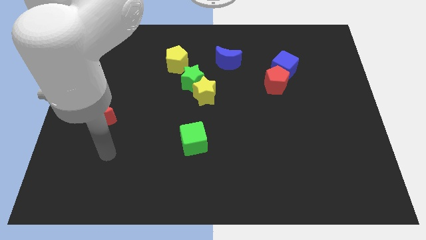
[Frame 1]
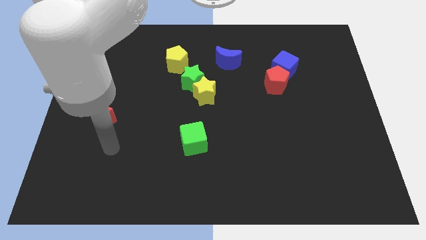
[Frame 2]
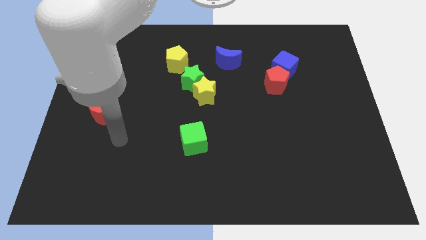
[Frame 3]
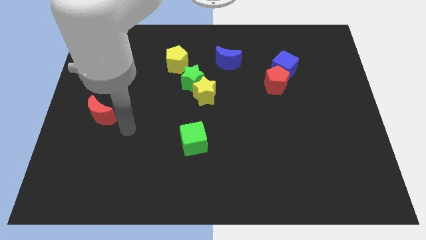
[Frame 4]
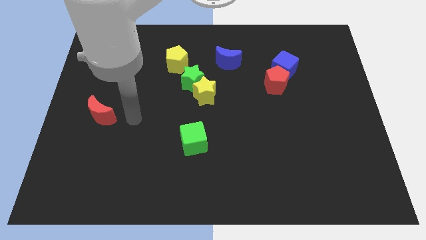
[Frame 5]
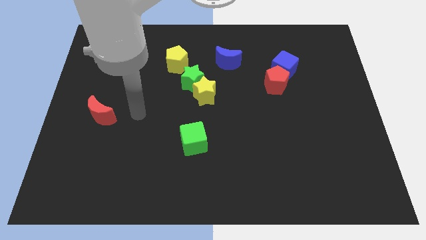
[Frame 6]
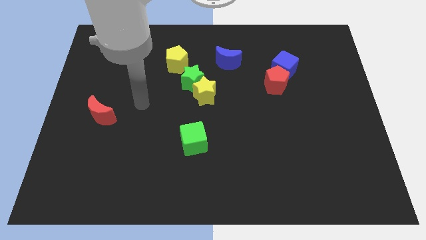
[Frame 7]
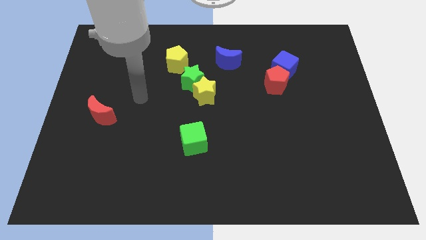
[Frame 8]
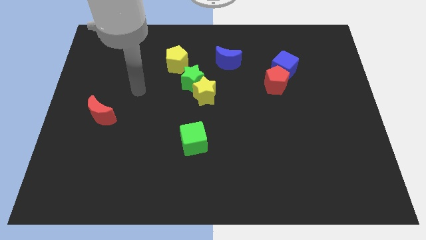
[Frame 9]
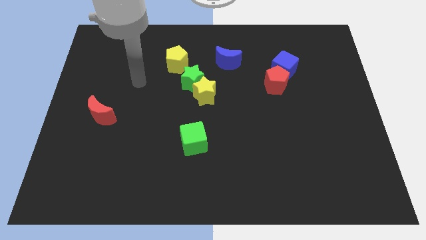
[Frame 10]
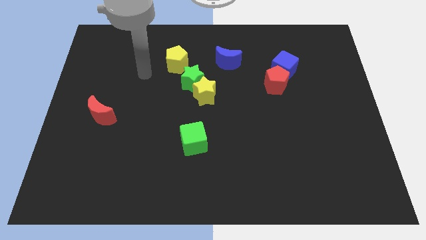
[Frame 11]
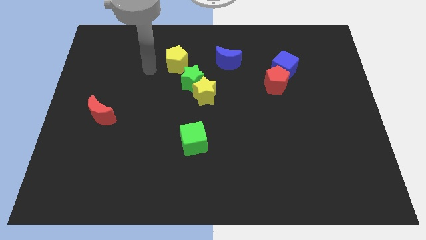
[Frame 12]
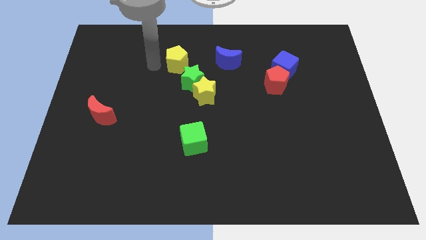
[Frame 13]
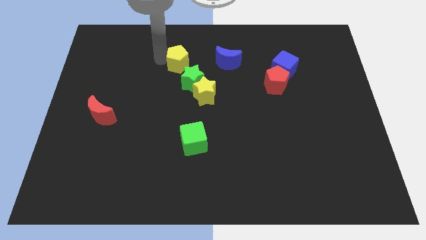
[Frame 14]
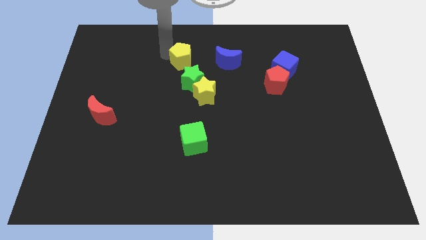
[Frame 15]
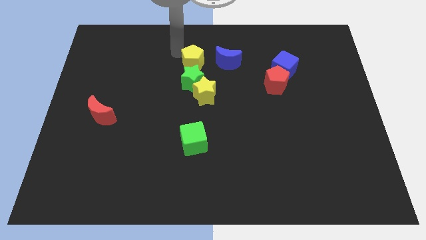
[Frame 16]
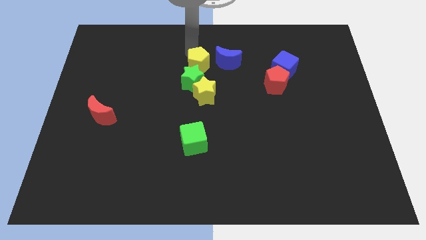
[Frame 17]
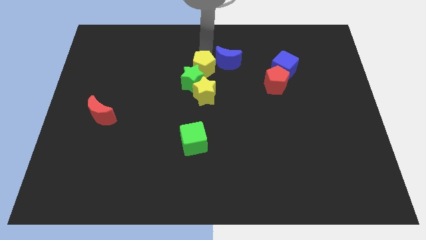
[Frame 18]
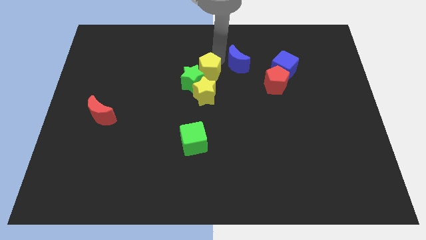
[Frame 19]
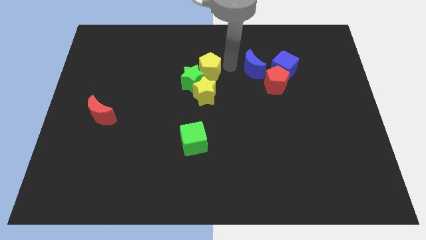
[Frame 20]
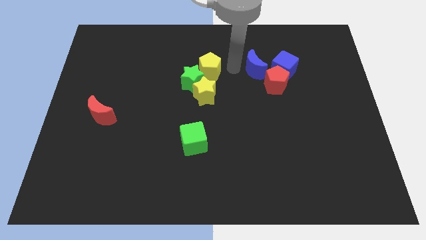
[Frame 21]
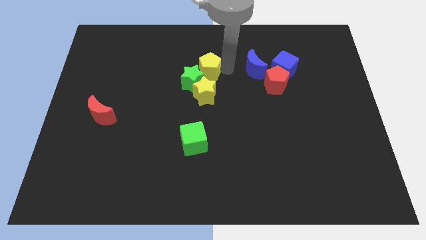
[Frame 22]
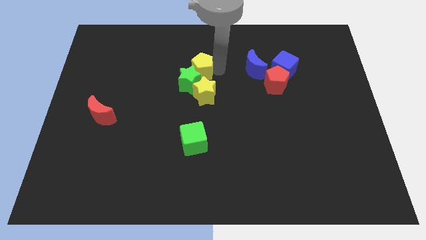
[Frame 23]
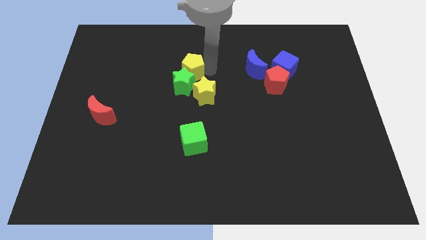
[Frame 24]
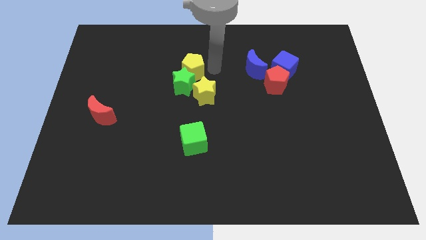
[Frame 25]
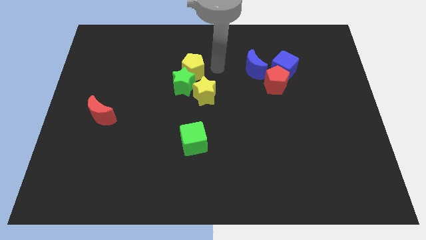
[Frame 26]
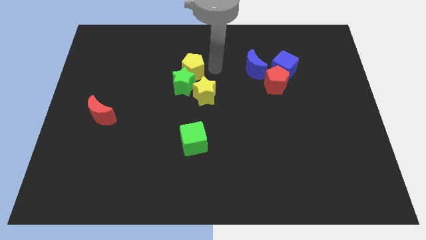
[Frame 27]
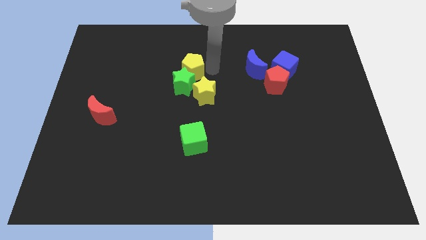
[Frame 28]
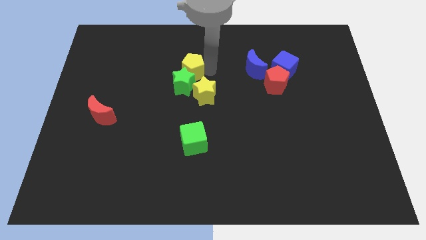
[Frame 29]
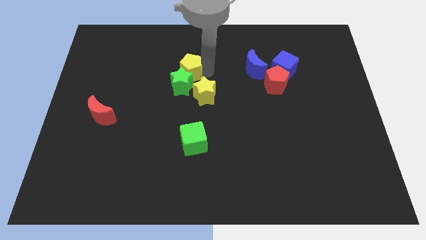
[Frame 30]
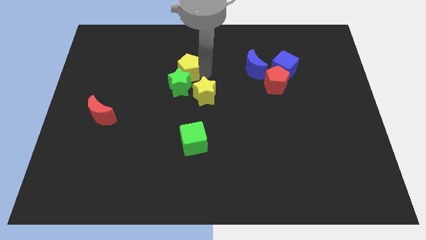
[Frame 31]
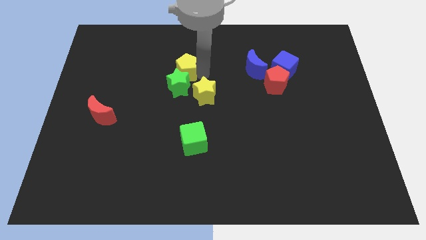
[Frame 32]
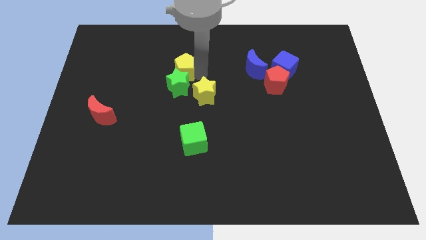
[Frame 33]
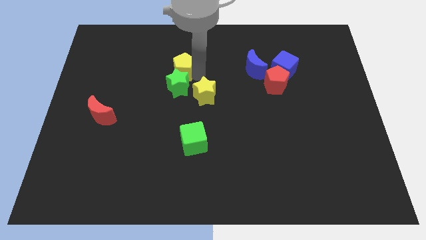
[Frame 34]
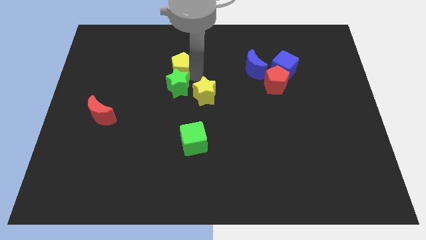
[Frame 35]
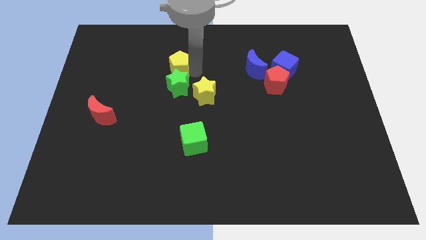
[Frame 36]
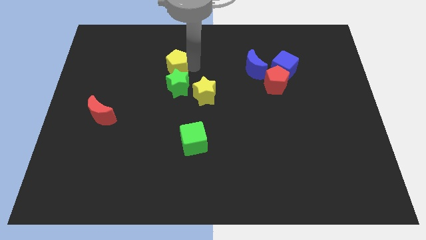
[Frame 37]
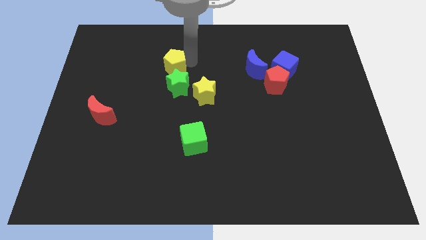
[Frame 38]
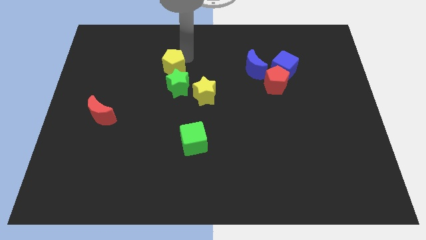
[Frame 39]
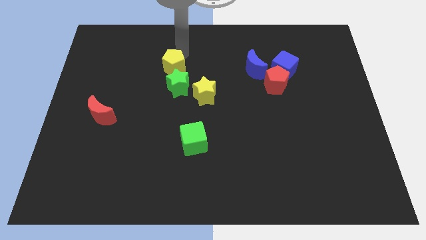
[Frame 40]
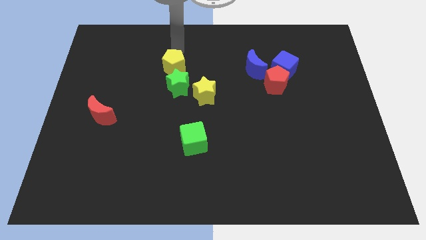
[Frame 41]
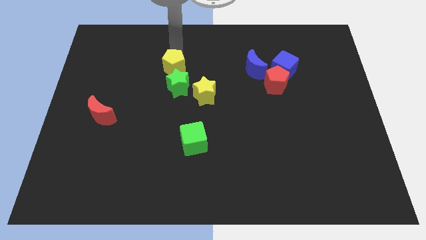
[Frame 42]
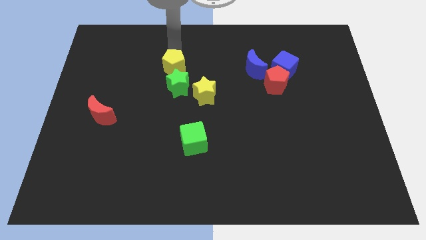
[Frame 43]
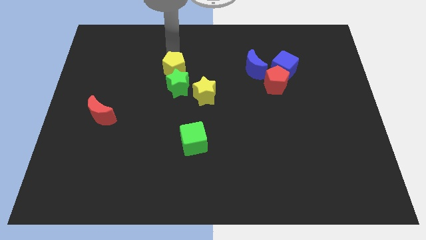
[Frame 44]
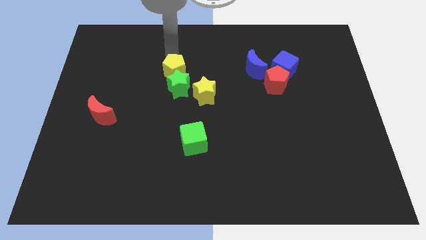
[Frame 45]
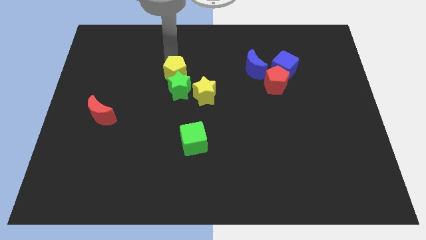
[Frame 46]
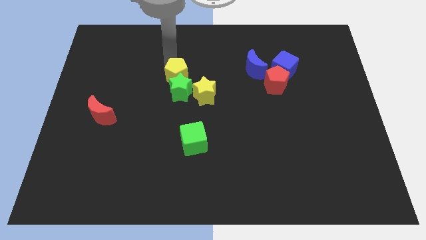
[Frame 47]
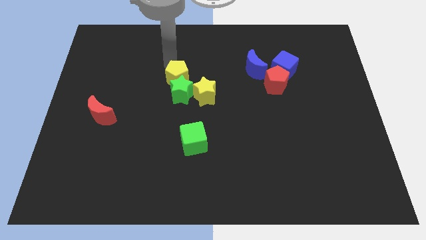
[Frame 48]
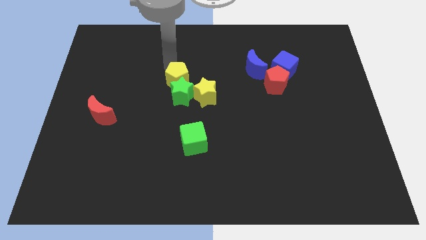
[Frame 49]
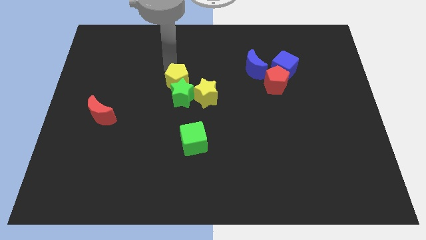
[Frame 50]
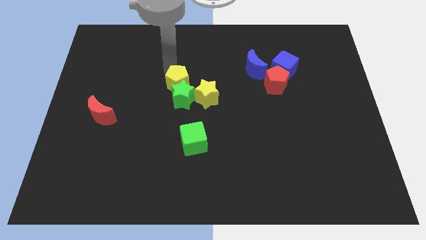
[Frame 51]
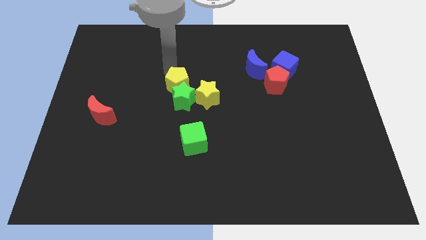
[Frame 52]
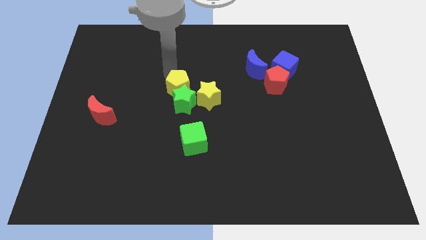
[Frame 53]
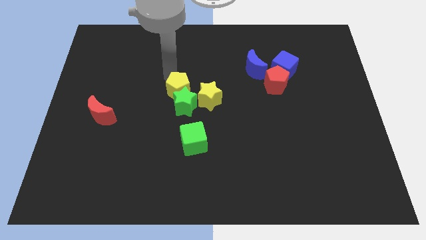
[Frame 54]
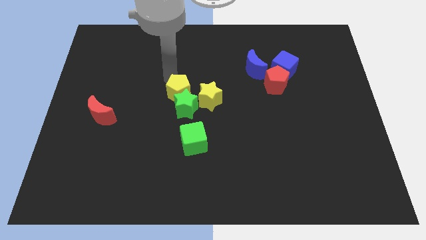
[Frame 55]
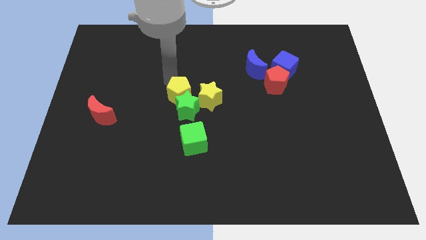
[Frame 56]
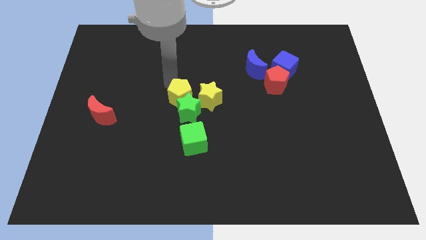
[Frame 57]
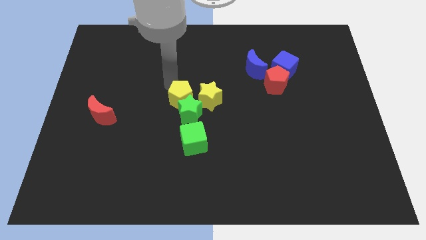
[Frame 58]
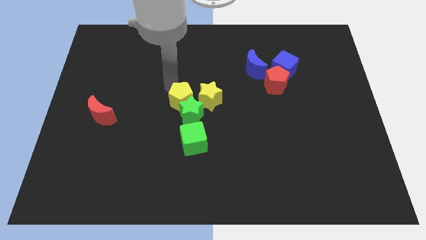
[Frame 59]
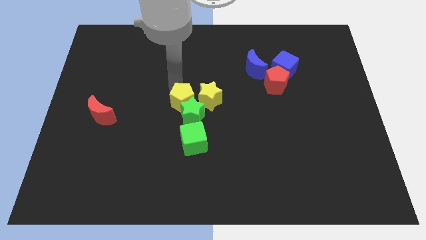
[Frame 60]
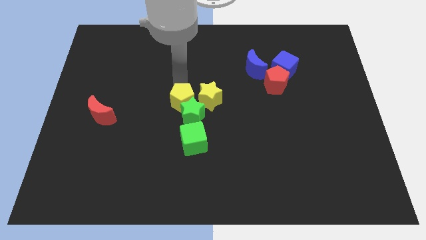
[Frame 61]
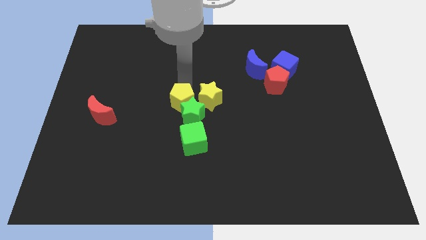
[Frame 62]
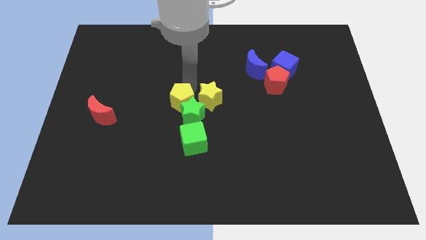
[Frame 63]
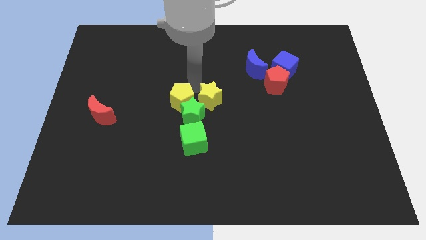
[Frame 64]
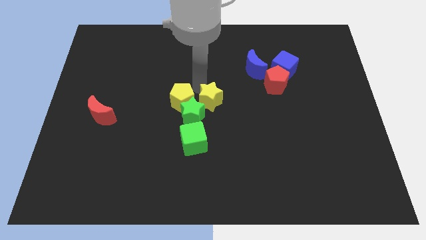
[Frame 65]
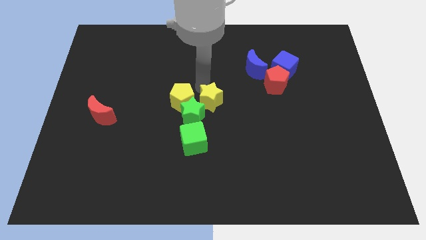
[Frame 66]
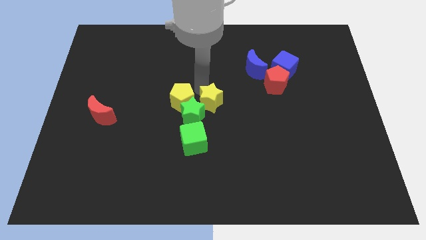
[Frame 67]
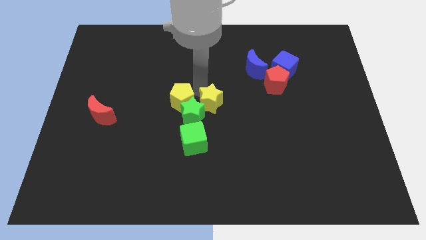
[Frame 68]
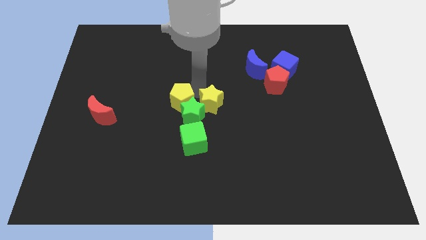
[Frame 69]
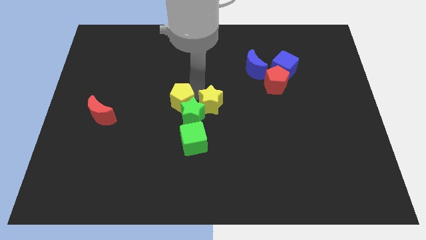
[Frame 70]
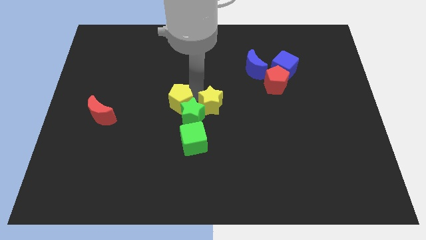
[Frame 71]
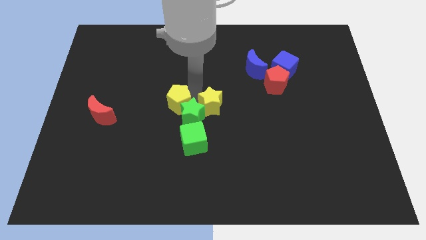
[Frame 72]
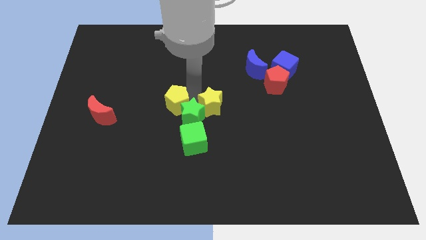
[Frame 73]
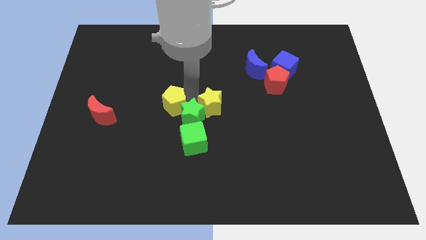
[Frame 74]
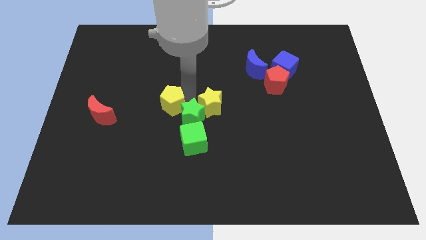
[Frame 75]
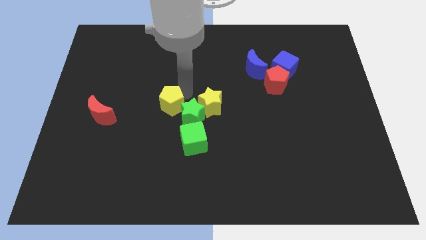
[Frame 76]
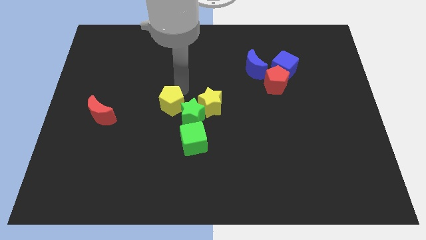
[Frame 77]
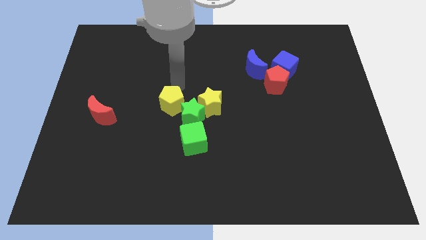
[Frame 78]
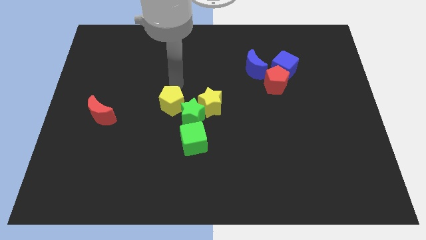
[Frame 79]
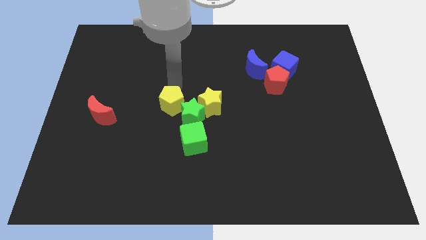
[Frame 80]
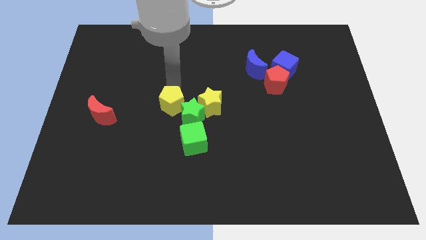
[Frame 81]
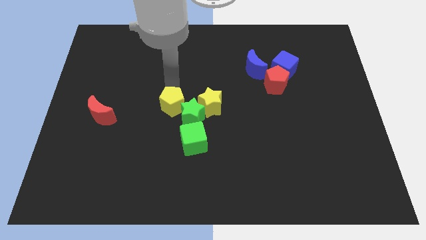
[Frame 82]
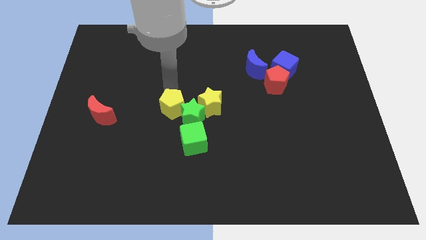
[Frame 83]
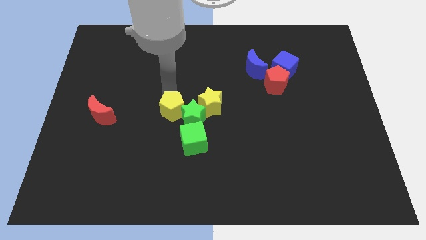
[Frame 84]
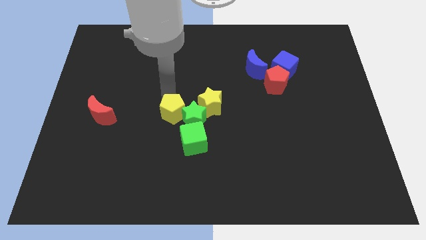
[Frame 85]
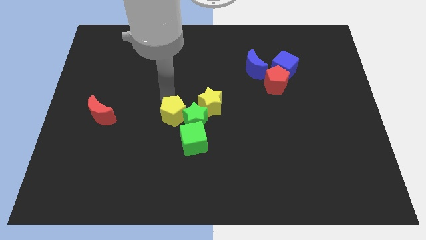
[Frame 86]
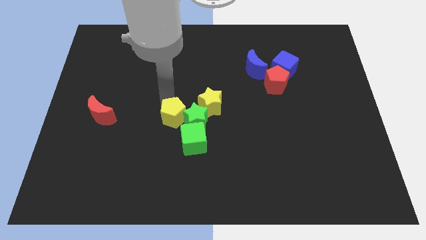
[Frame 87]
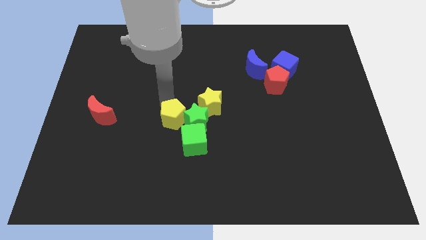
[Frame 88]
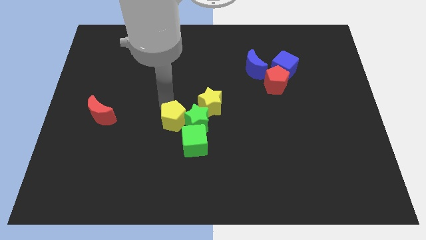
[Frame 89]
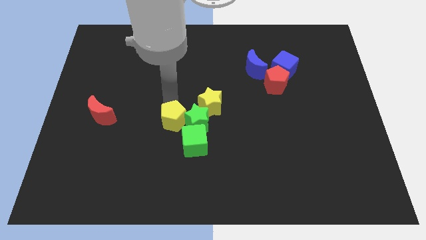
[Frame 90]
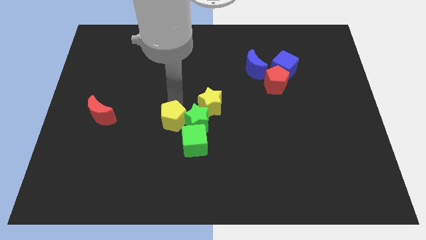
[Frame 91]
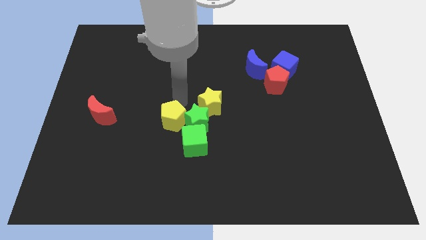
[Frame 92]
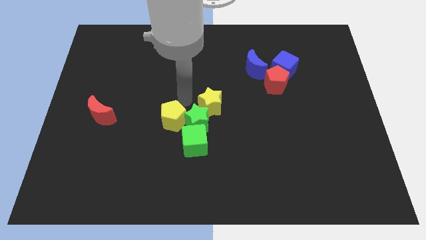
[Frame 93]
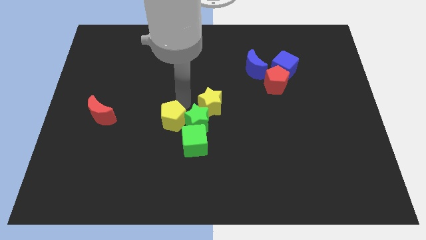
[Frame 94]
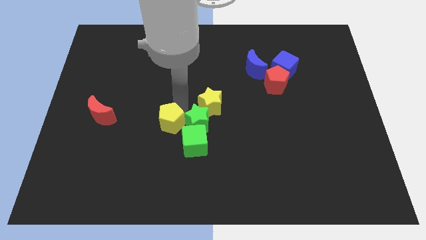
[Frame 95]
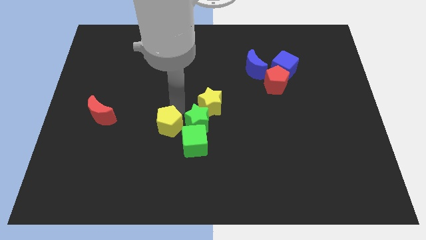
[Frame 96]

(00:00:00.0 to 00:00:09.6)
move the yellow pentagon downwards
